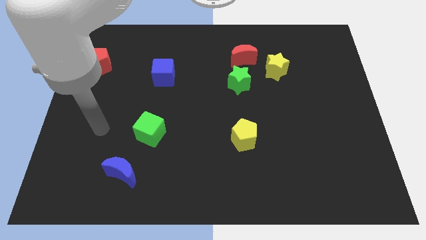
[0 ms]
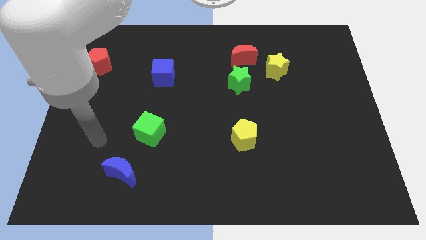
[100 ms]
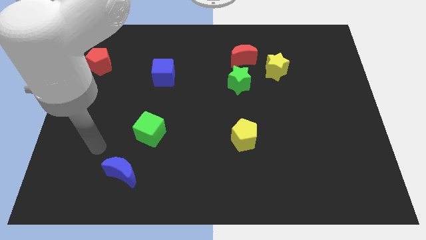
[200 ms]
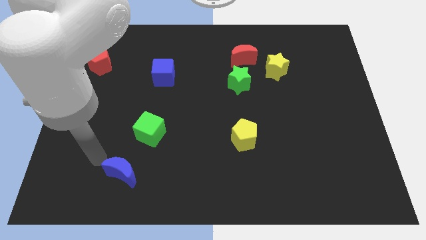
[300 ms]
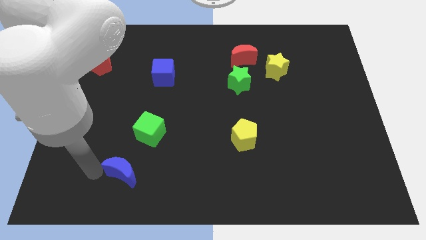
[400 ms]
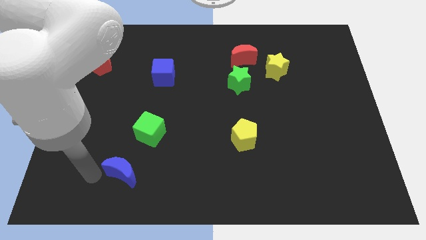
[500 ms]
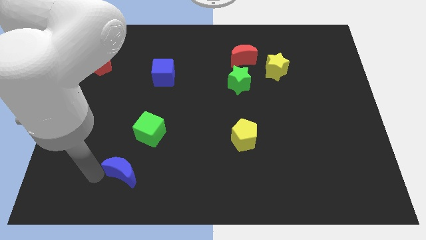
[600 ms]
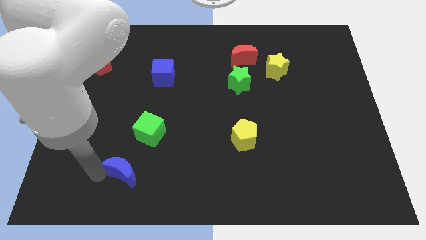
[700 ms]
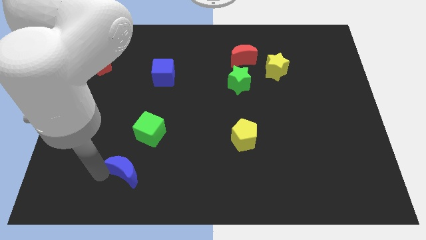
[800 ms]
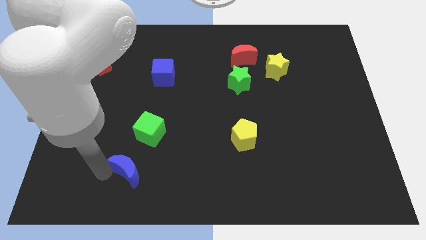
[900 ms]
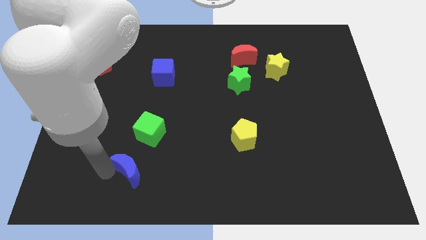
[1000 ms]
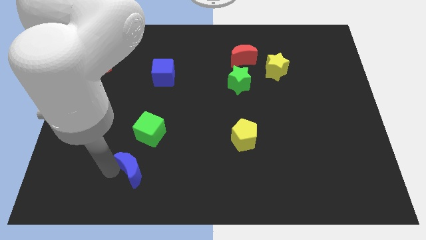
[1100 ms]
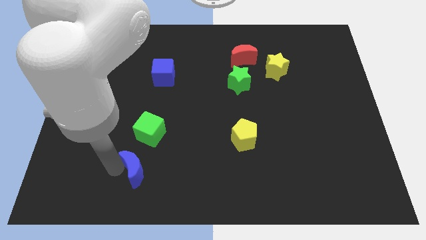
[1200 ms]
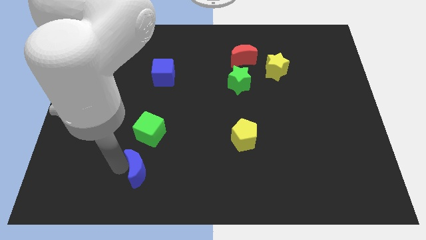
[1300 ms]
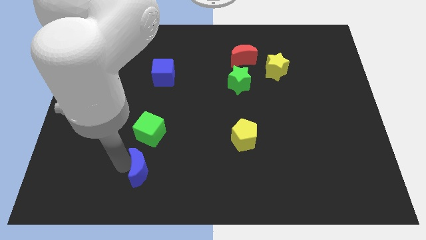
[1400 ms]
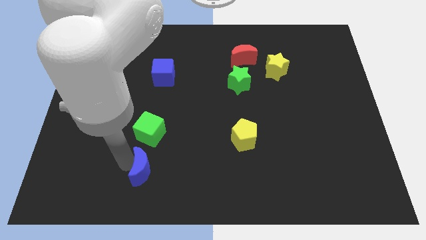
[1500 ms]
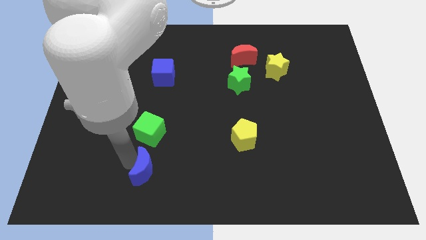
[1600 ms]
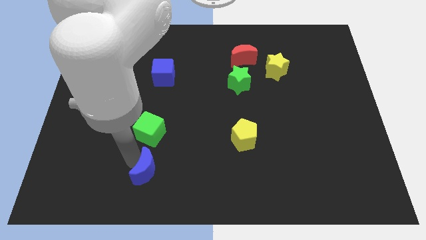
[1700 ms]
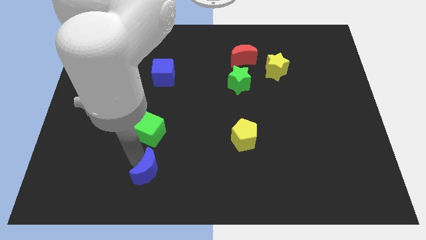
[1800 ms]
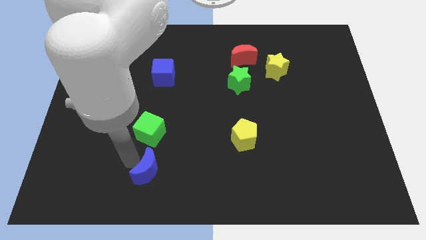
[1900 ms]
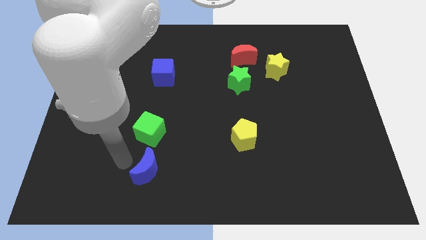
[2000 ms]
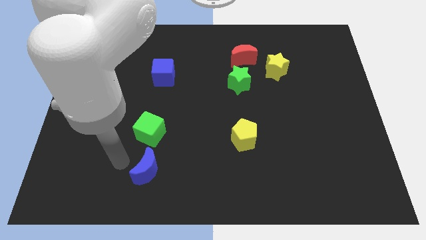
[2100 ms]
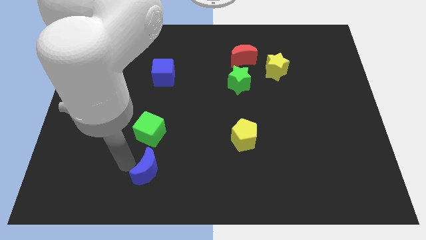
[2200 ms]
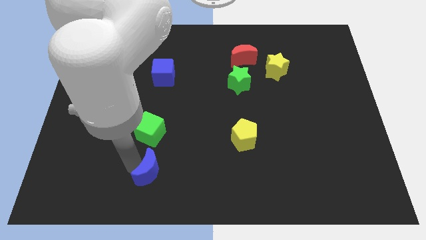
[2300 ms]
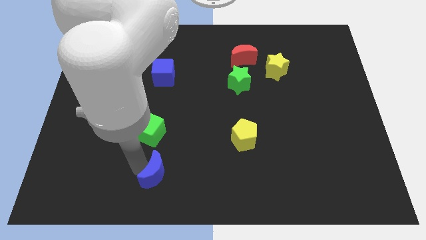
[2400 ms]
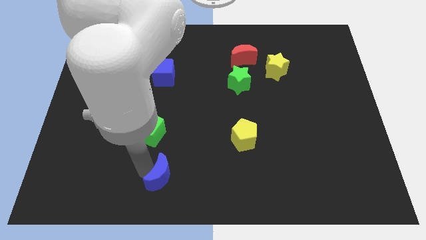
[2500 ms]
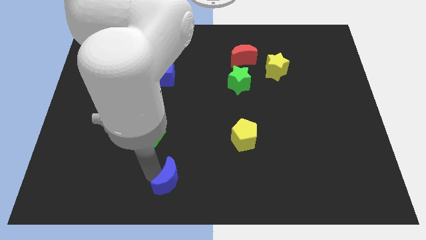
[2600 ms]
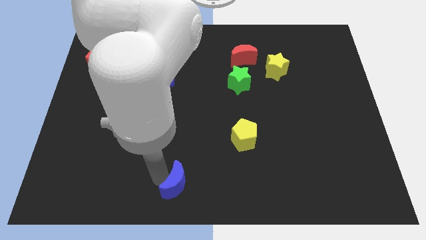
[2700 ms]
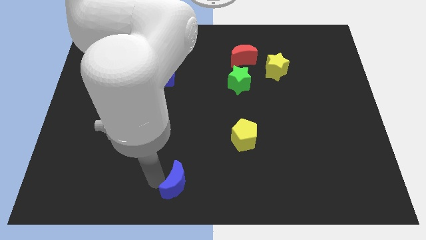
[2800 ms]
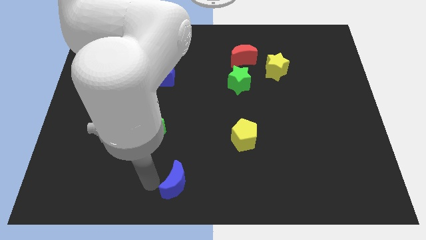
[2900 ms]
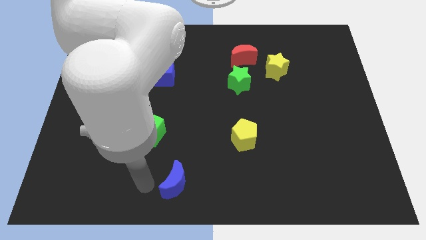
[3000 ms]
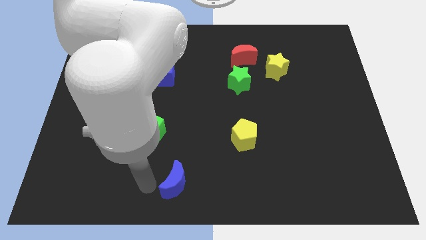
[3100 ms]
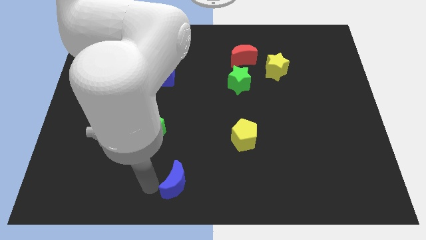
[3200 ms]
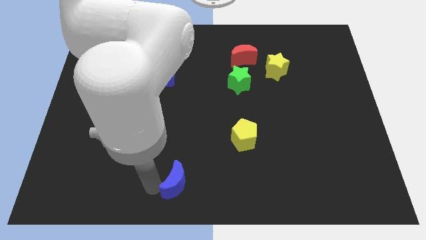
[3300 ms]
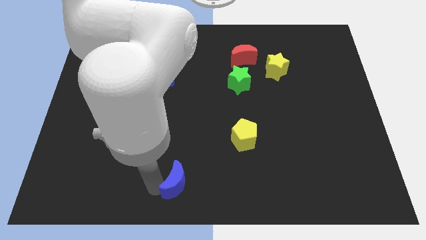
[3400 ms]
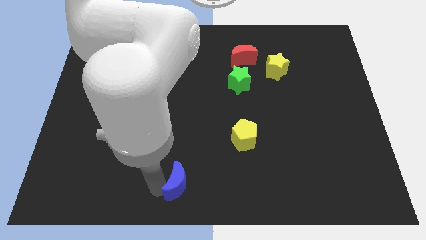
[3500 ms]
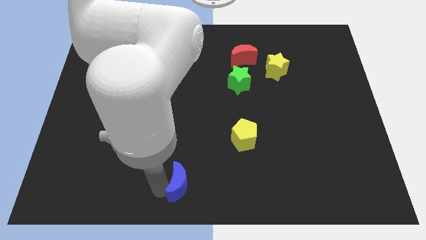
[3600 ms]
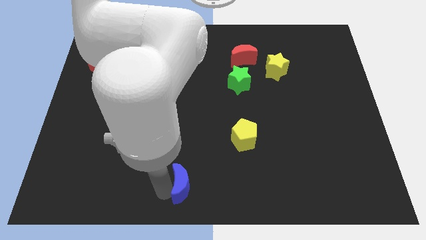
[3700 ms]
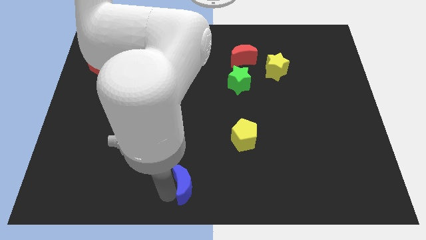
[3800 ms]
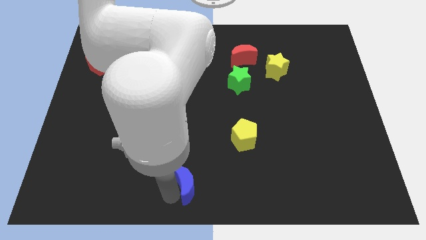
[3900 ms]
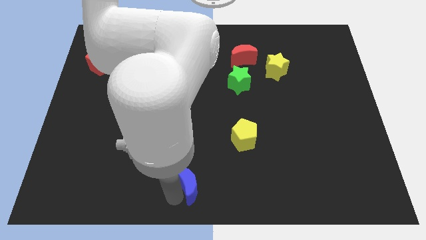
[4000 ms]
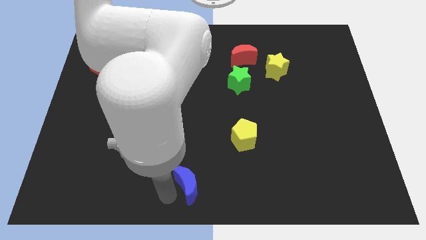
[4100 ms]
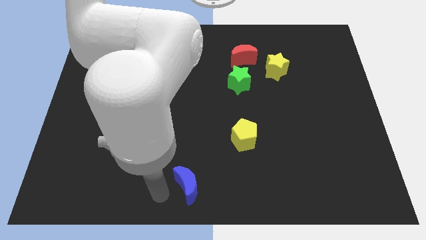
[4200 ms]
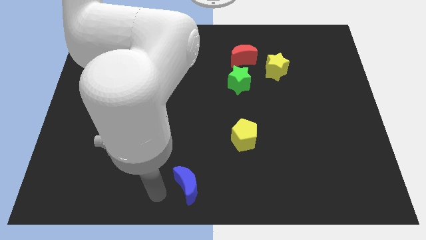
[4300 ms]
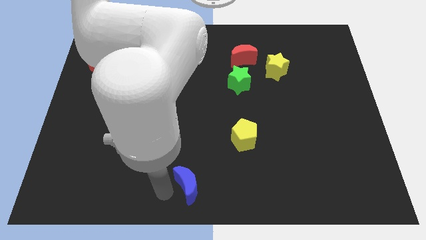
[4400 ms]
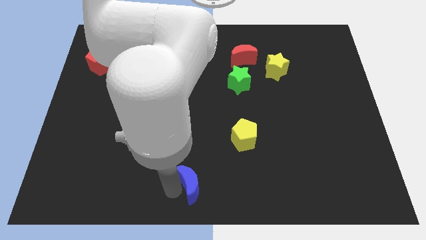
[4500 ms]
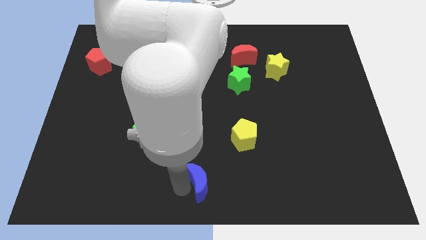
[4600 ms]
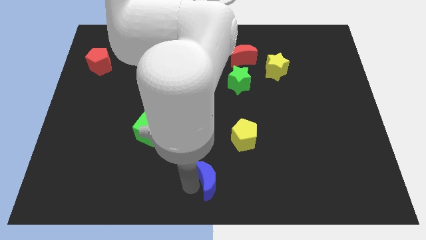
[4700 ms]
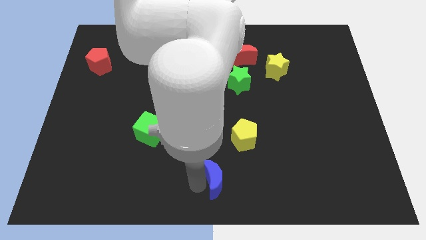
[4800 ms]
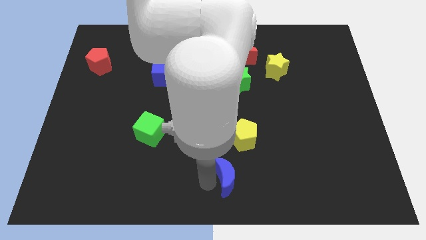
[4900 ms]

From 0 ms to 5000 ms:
slide the blue moon to the right

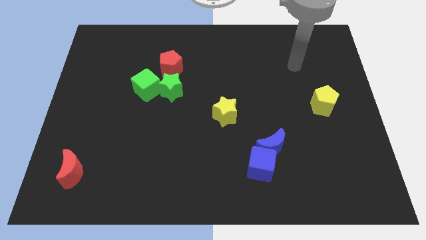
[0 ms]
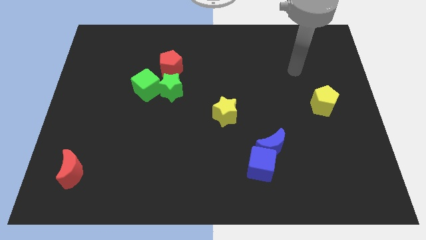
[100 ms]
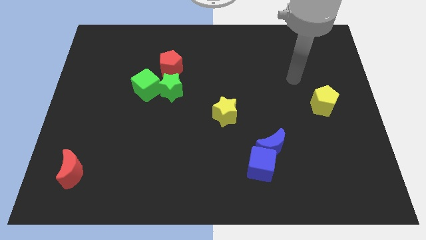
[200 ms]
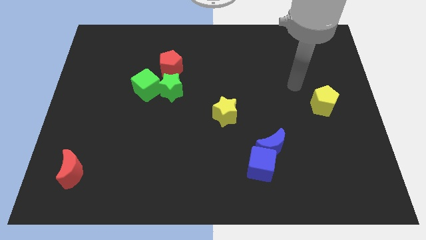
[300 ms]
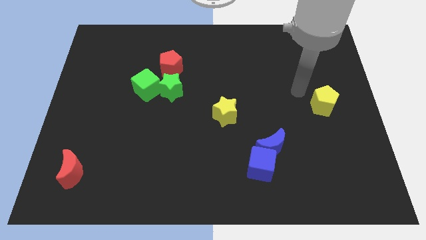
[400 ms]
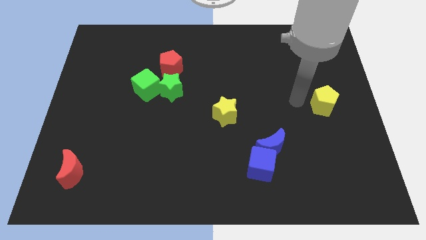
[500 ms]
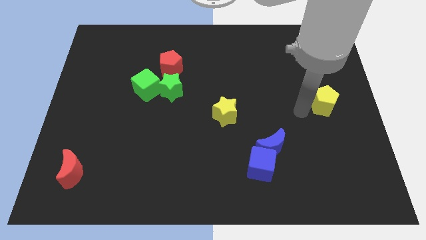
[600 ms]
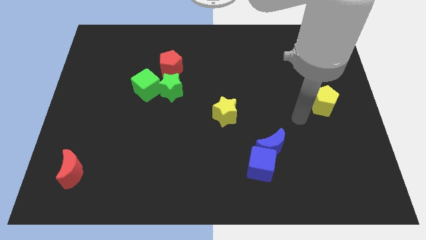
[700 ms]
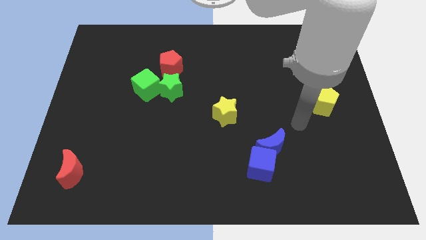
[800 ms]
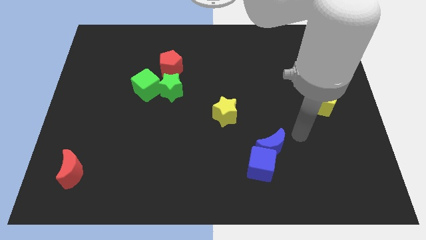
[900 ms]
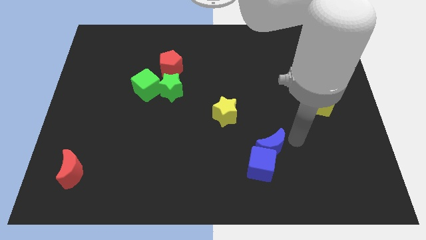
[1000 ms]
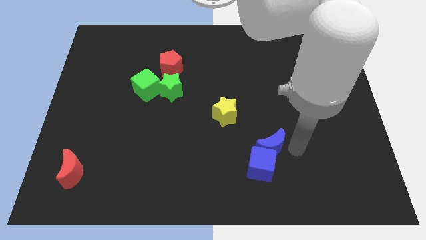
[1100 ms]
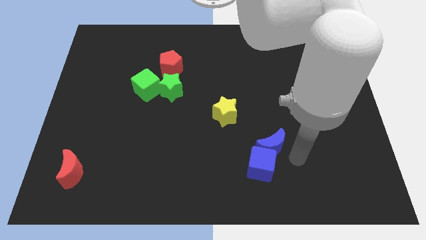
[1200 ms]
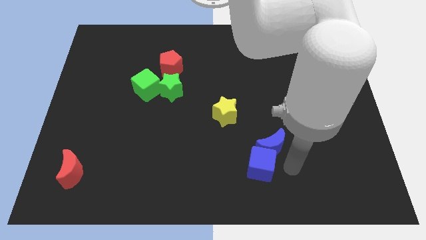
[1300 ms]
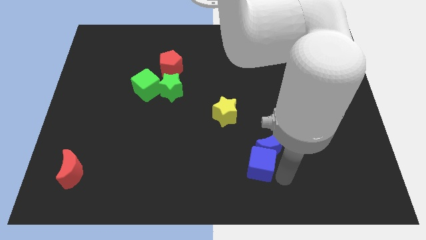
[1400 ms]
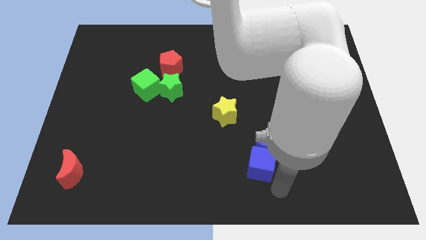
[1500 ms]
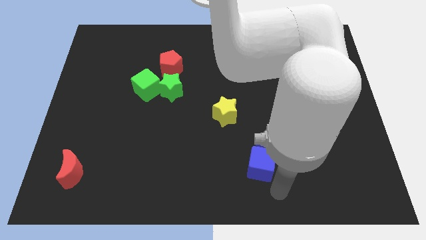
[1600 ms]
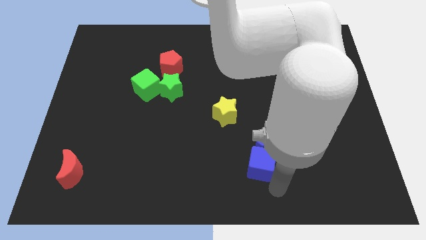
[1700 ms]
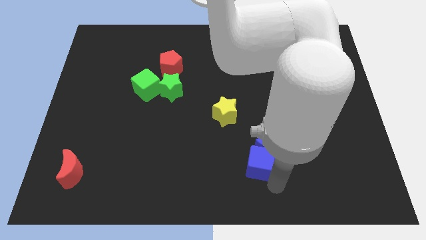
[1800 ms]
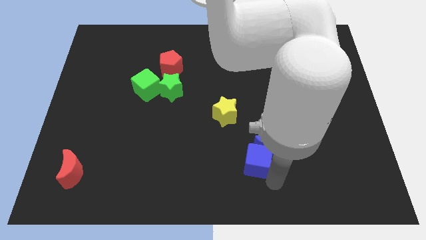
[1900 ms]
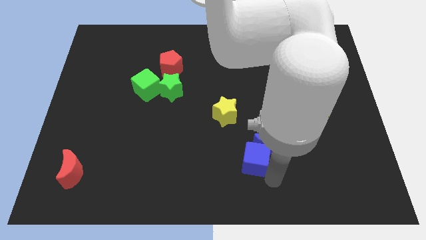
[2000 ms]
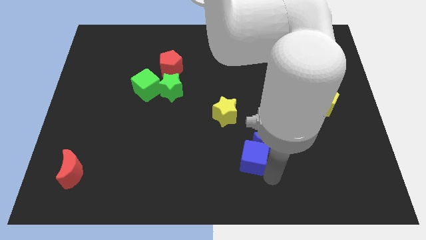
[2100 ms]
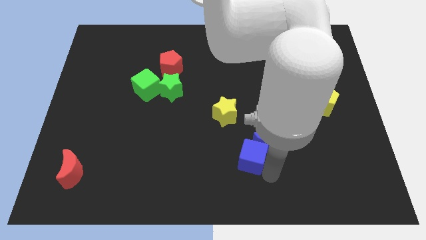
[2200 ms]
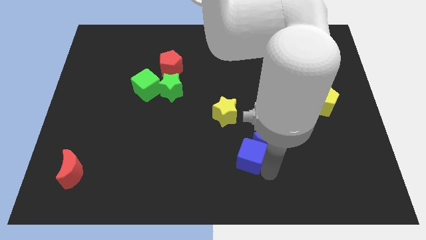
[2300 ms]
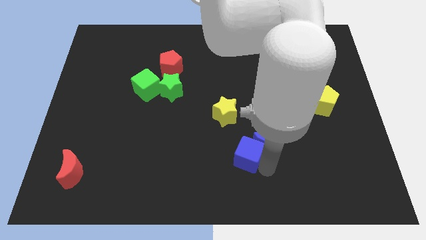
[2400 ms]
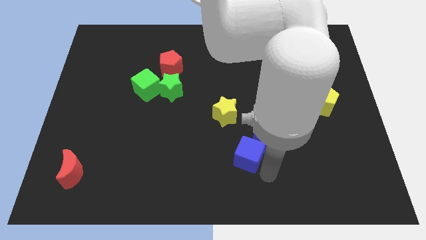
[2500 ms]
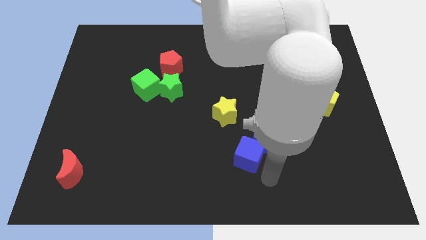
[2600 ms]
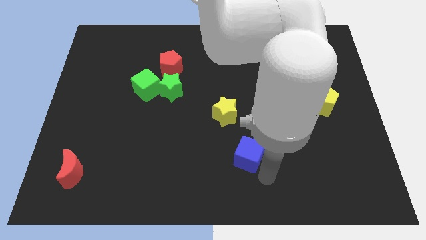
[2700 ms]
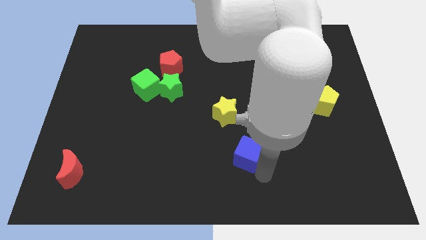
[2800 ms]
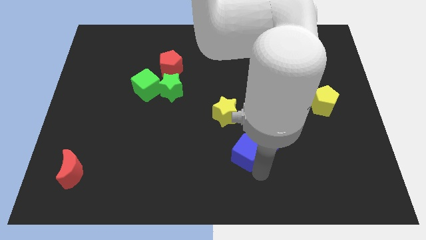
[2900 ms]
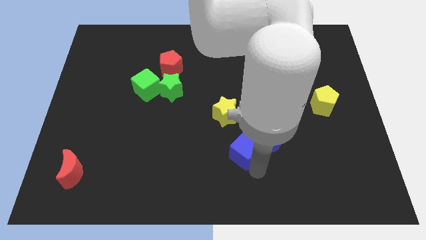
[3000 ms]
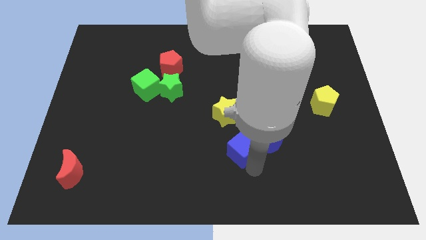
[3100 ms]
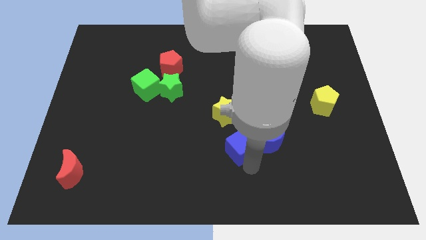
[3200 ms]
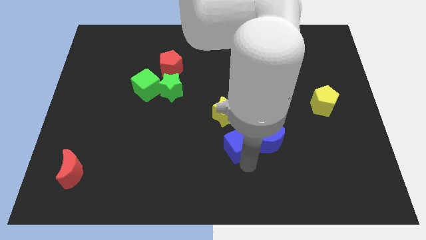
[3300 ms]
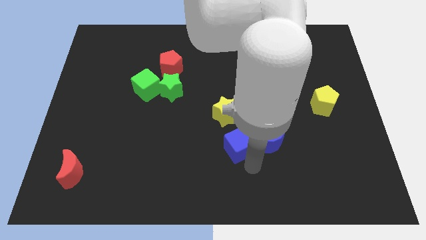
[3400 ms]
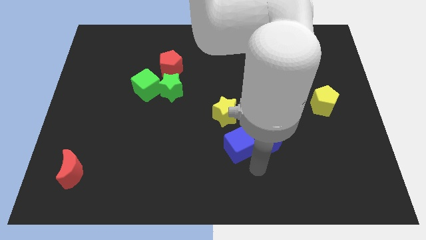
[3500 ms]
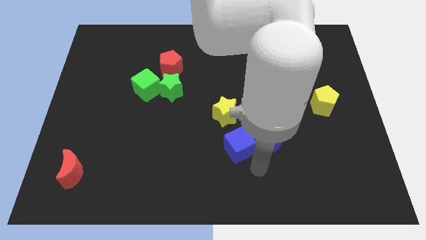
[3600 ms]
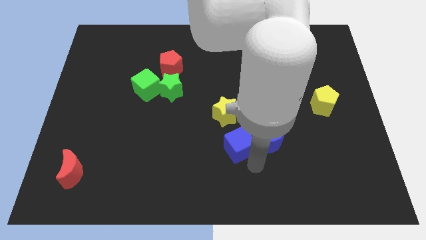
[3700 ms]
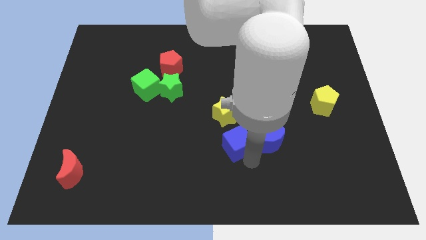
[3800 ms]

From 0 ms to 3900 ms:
push the blue cube a little bit up and left diagonally
